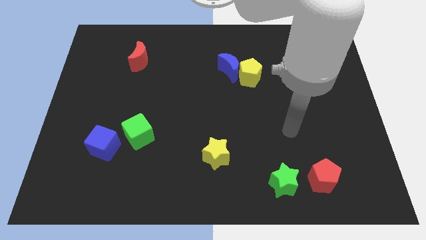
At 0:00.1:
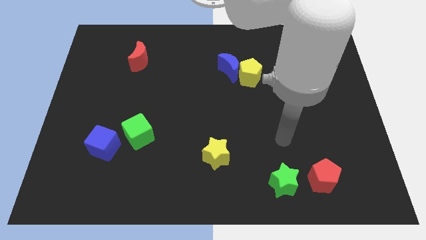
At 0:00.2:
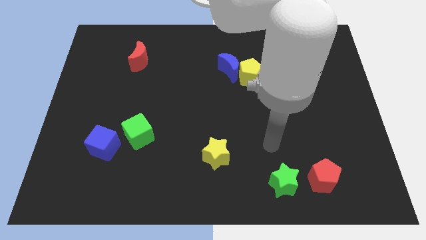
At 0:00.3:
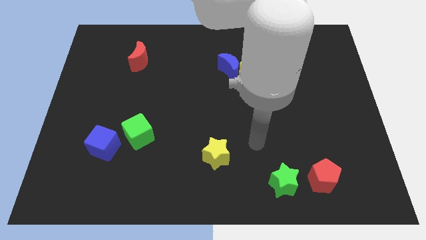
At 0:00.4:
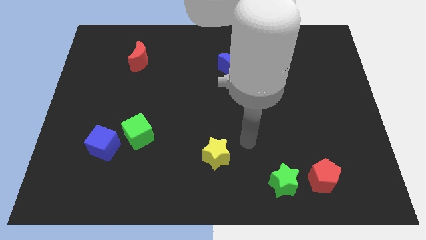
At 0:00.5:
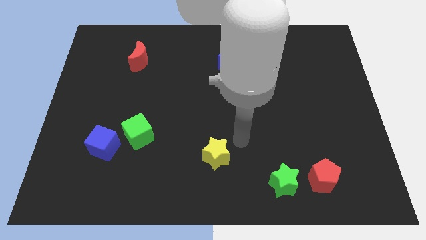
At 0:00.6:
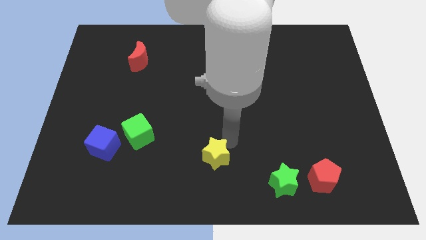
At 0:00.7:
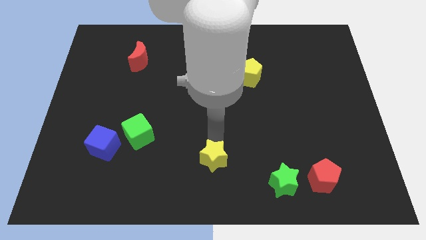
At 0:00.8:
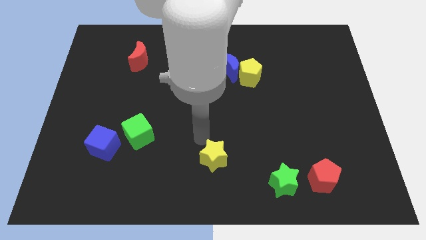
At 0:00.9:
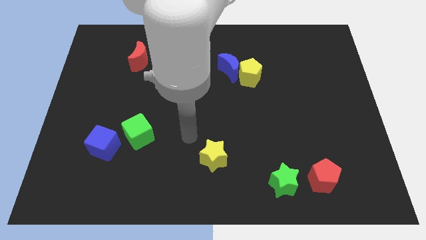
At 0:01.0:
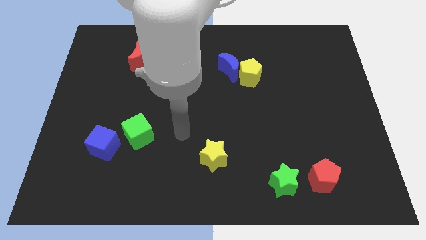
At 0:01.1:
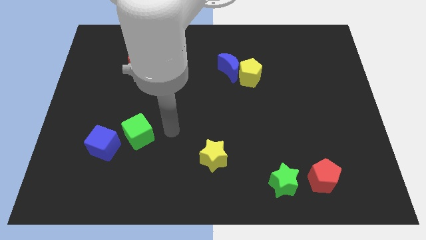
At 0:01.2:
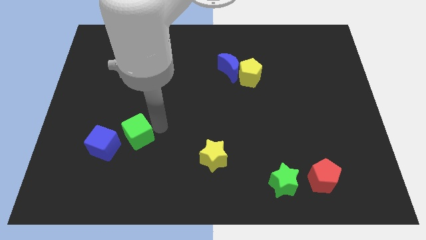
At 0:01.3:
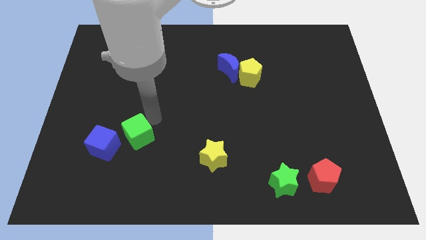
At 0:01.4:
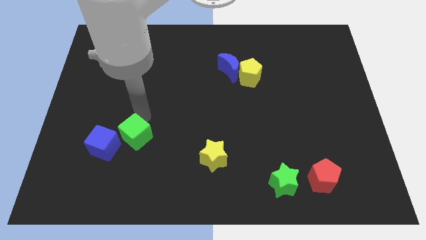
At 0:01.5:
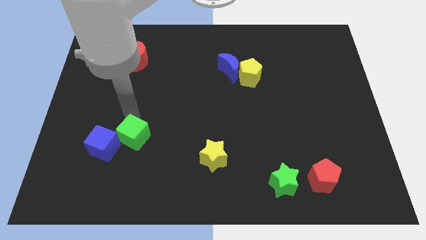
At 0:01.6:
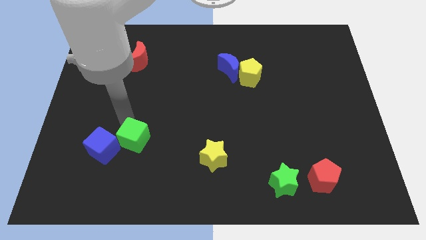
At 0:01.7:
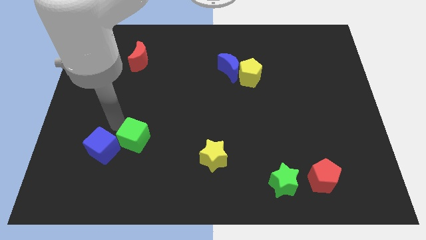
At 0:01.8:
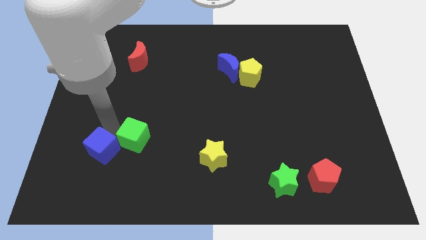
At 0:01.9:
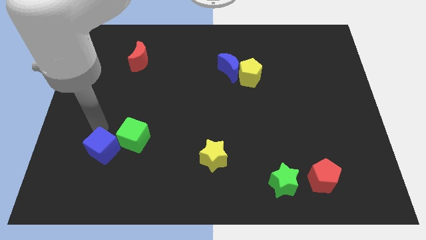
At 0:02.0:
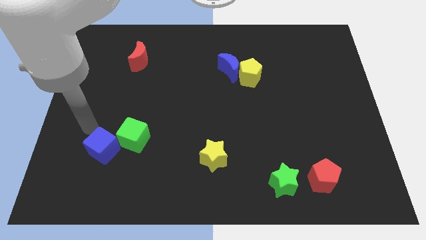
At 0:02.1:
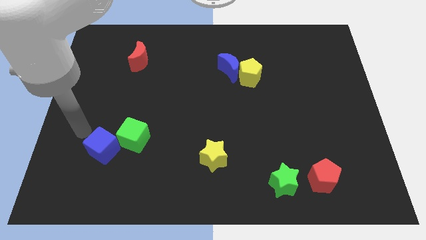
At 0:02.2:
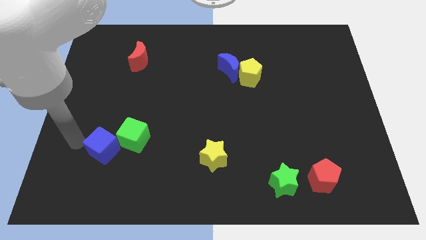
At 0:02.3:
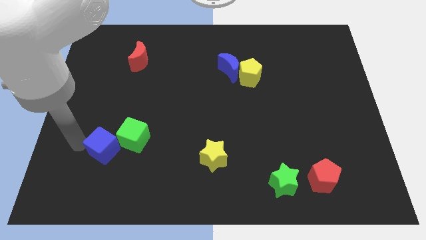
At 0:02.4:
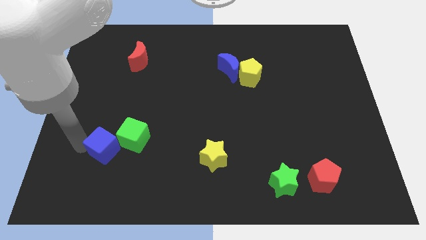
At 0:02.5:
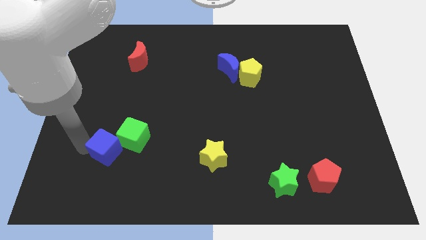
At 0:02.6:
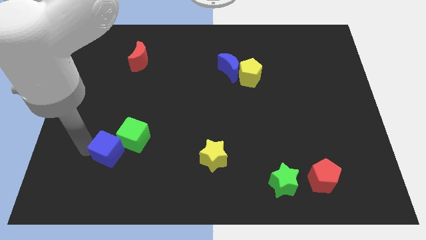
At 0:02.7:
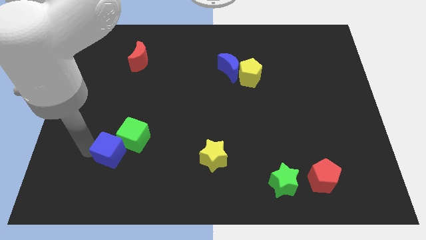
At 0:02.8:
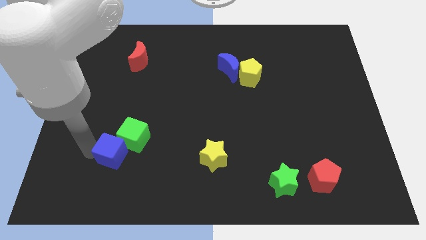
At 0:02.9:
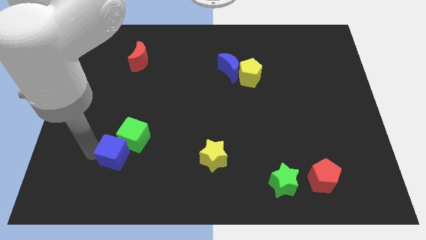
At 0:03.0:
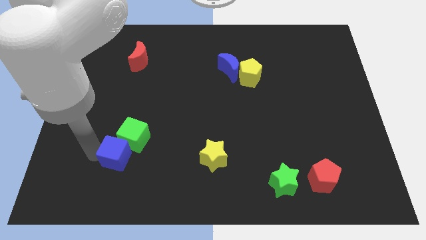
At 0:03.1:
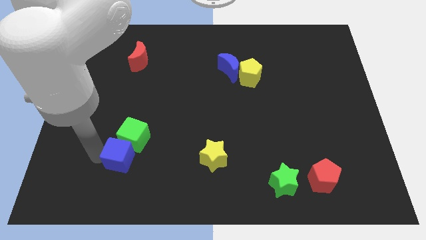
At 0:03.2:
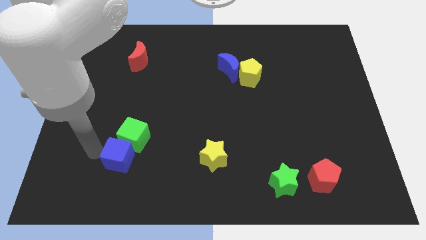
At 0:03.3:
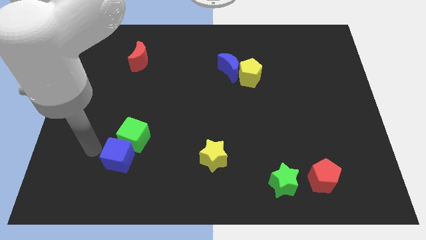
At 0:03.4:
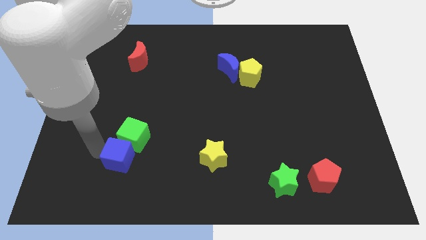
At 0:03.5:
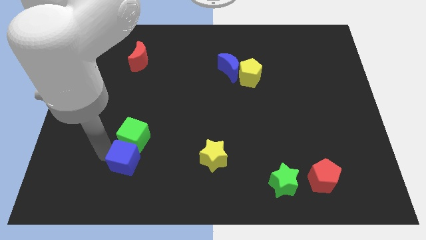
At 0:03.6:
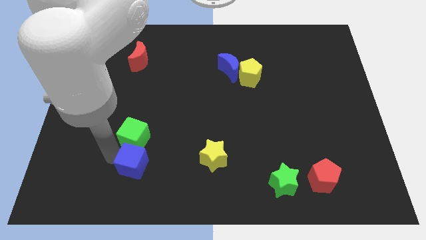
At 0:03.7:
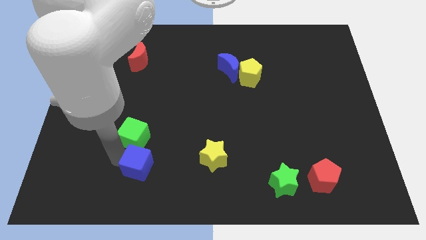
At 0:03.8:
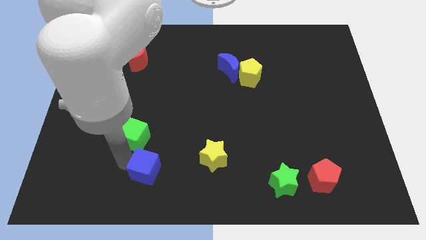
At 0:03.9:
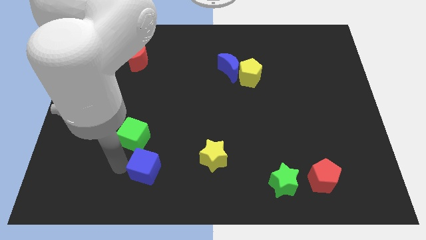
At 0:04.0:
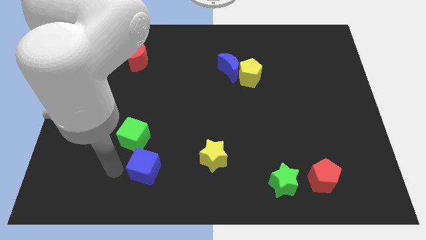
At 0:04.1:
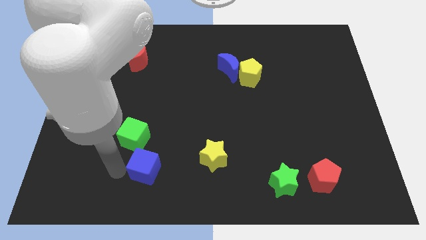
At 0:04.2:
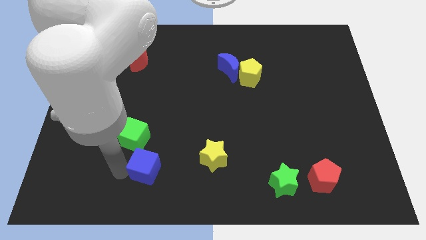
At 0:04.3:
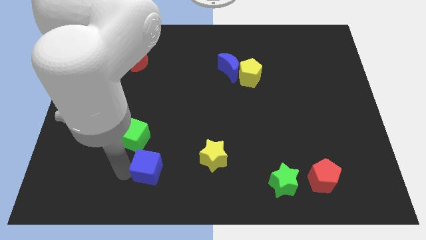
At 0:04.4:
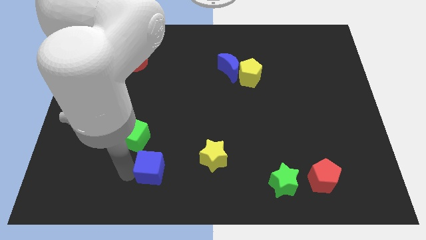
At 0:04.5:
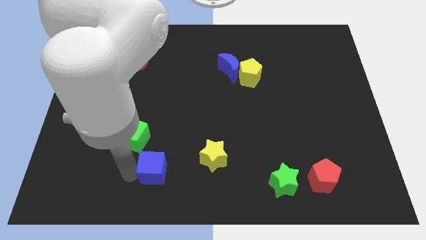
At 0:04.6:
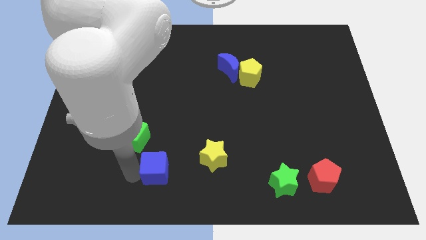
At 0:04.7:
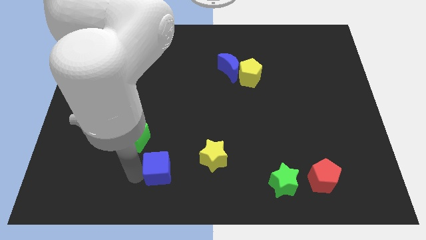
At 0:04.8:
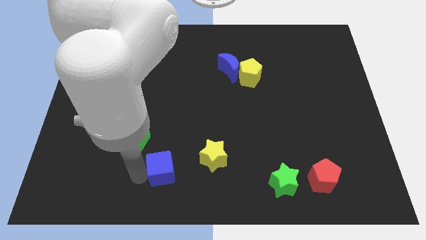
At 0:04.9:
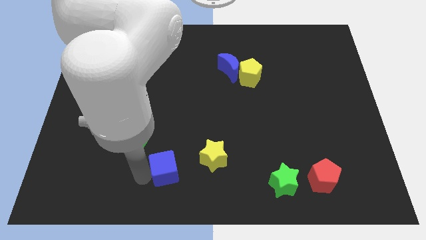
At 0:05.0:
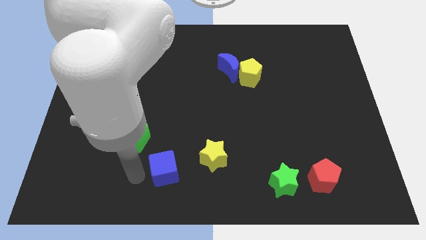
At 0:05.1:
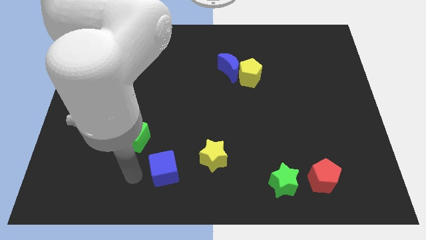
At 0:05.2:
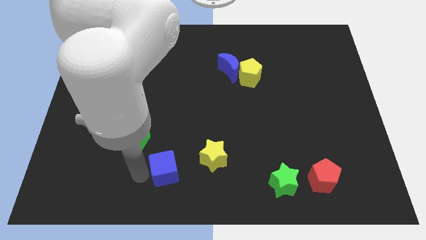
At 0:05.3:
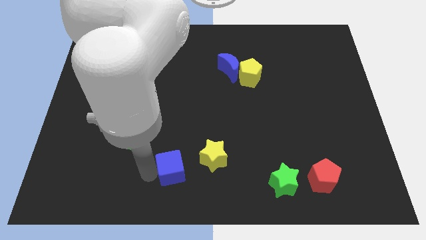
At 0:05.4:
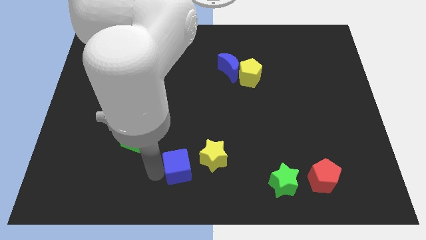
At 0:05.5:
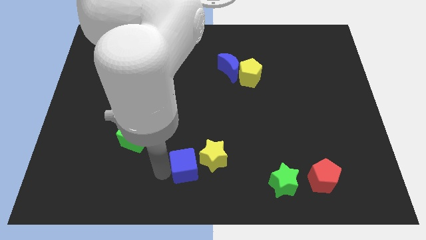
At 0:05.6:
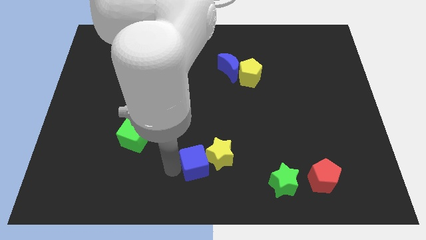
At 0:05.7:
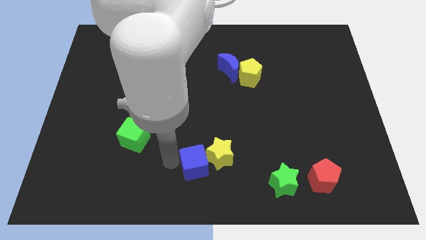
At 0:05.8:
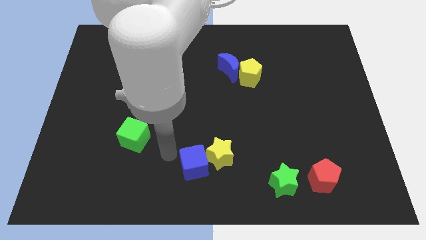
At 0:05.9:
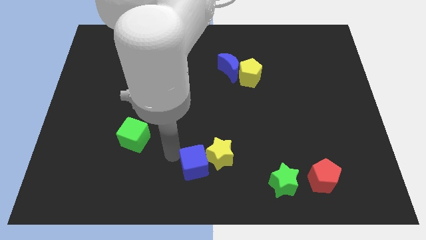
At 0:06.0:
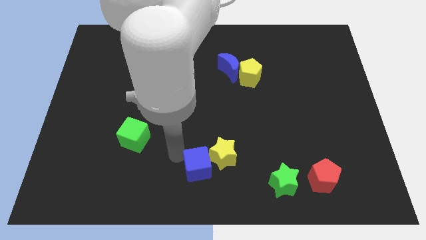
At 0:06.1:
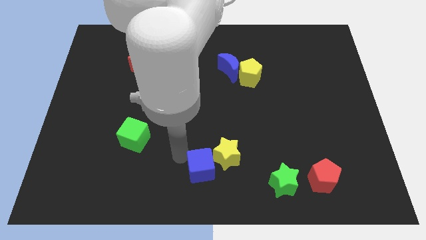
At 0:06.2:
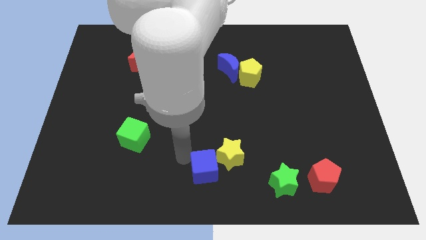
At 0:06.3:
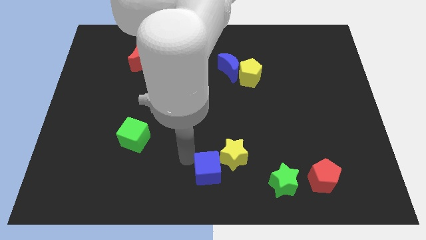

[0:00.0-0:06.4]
slide the blue cube just left of the green star

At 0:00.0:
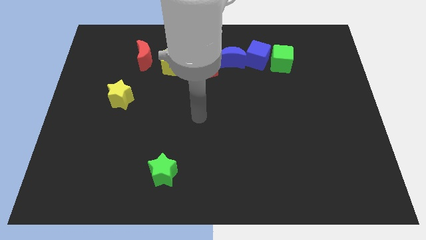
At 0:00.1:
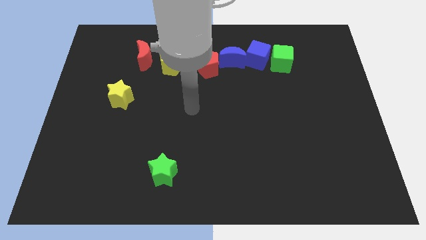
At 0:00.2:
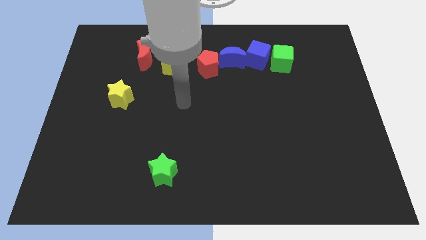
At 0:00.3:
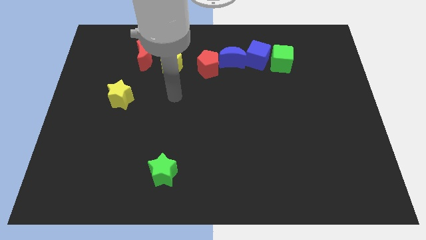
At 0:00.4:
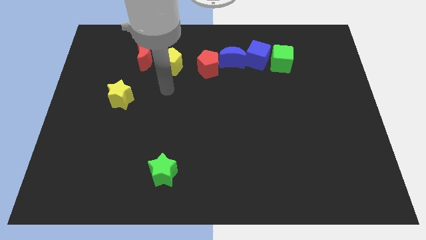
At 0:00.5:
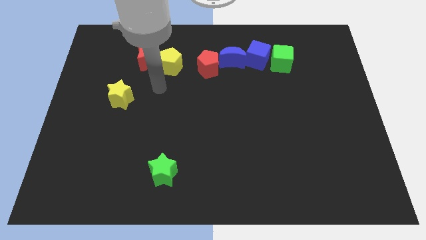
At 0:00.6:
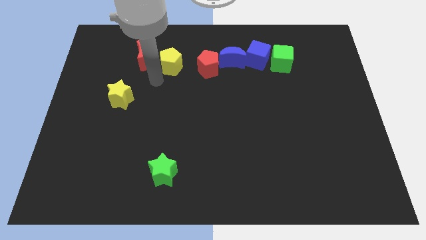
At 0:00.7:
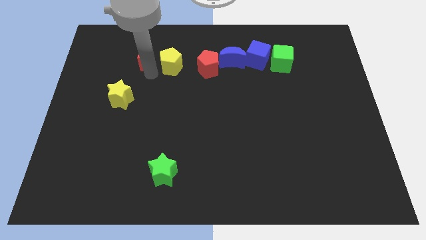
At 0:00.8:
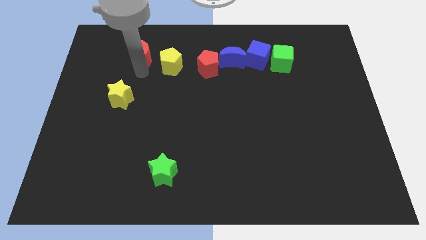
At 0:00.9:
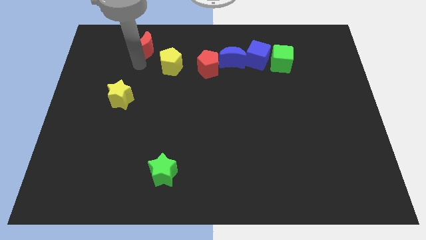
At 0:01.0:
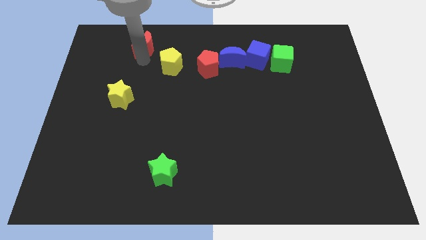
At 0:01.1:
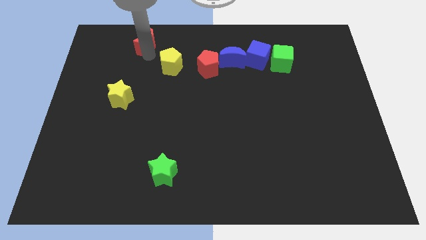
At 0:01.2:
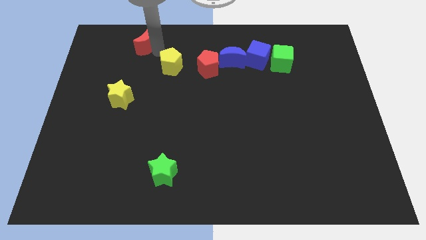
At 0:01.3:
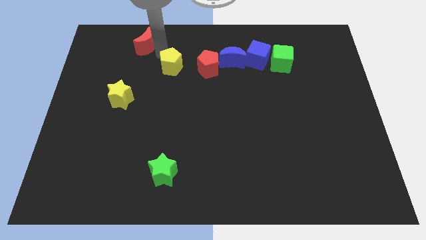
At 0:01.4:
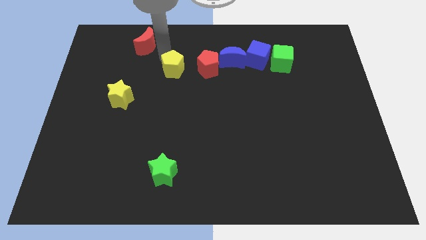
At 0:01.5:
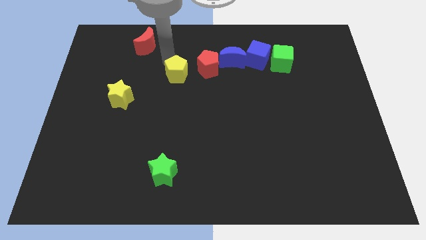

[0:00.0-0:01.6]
push the yellow pentagon to the bottom left side of the red pentagon
